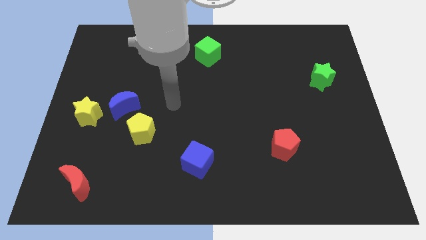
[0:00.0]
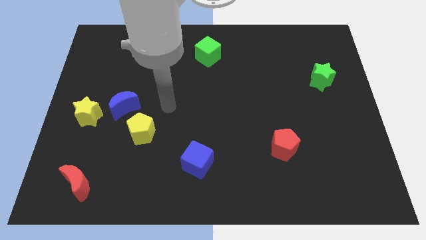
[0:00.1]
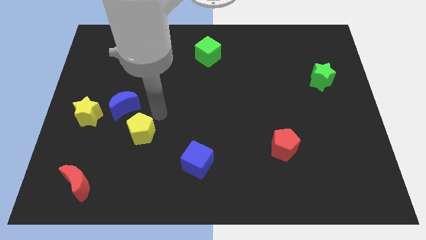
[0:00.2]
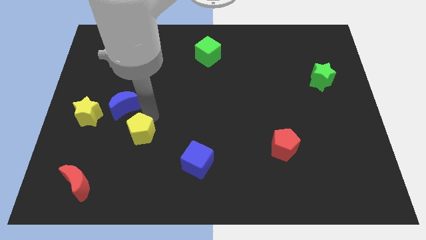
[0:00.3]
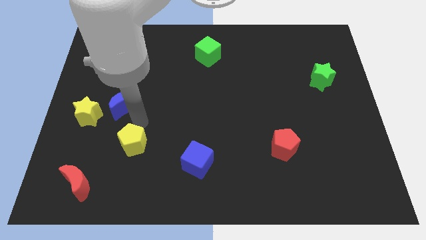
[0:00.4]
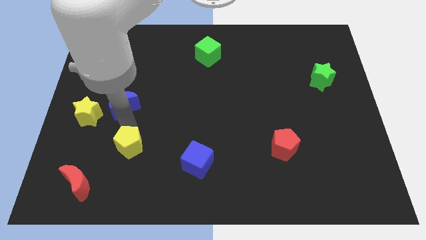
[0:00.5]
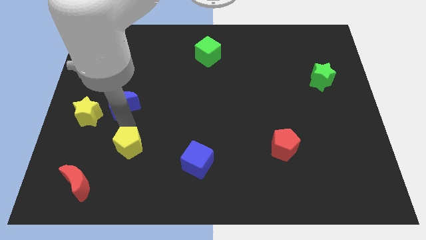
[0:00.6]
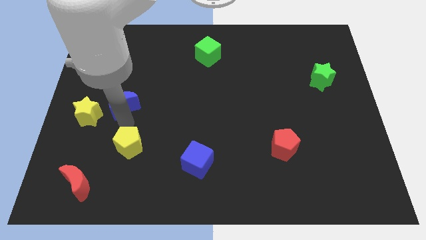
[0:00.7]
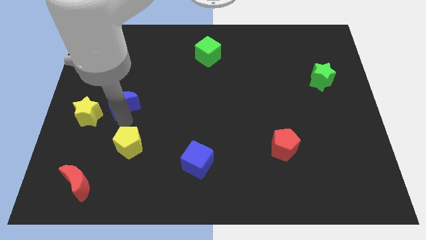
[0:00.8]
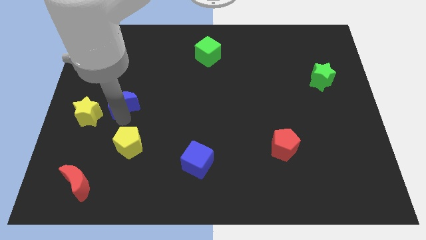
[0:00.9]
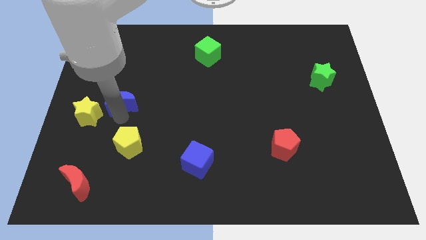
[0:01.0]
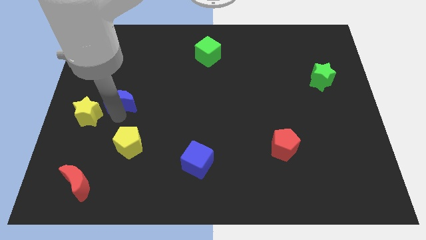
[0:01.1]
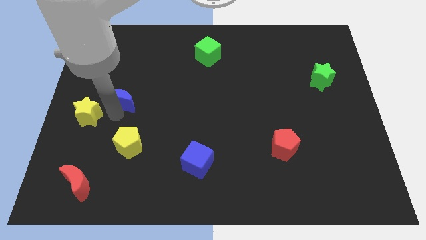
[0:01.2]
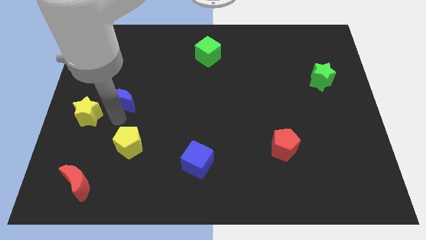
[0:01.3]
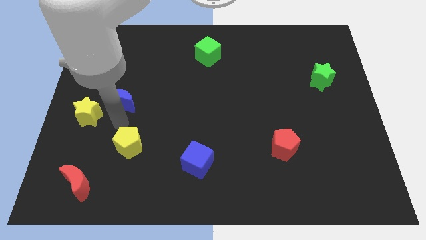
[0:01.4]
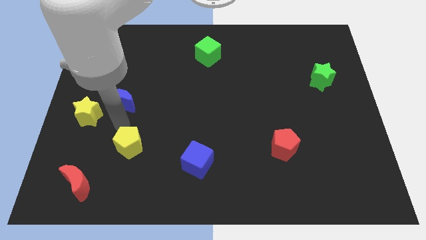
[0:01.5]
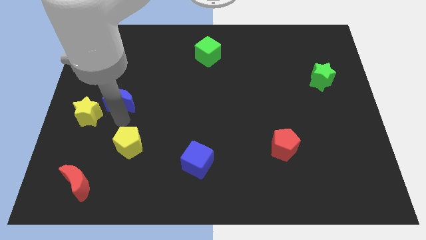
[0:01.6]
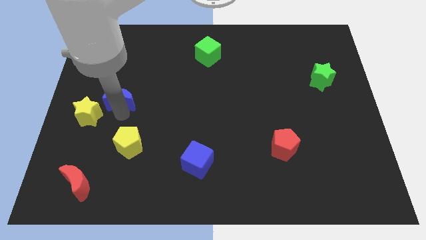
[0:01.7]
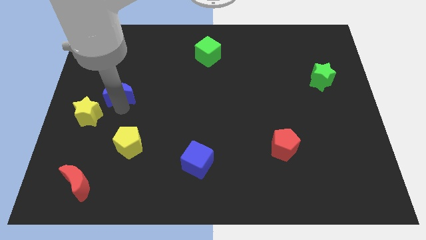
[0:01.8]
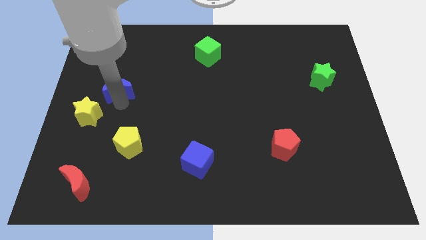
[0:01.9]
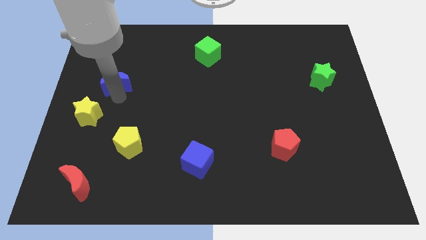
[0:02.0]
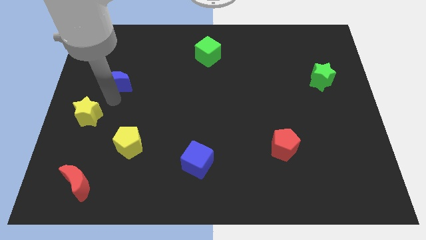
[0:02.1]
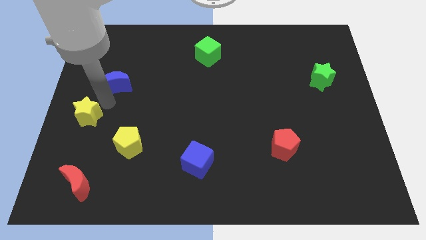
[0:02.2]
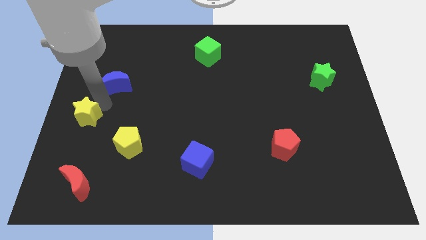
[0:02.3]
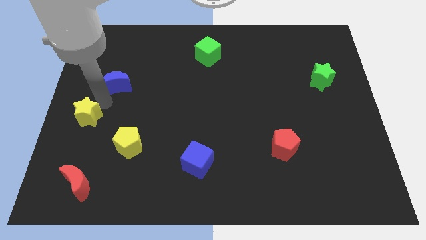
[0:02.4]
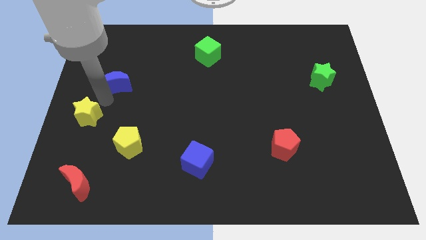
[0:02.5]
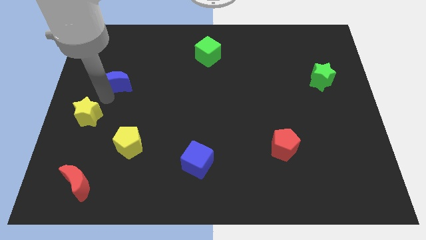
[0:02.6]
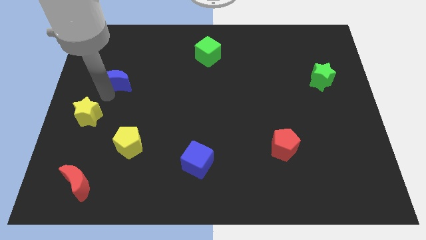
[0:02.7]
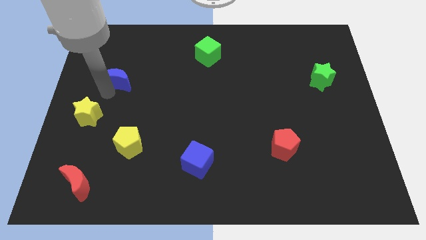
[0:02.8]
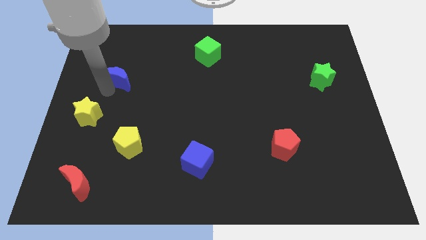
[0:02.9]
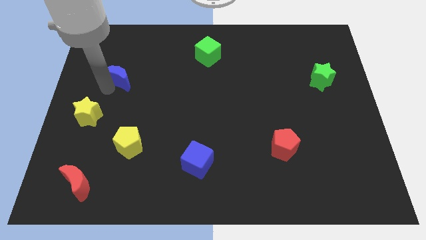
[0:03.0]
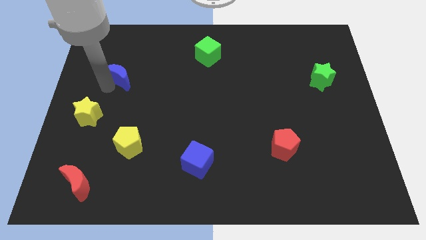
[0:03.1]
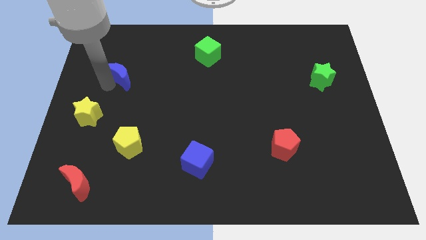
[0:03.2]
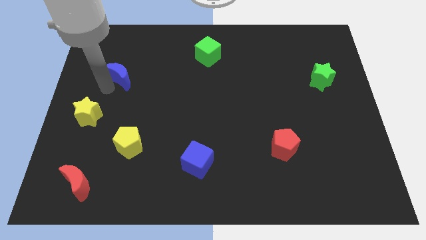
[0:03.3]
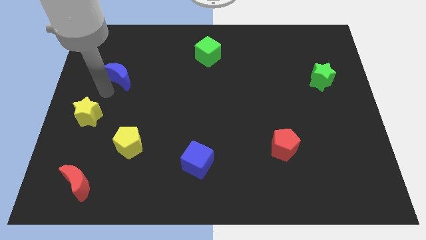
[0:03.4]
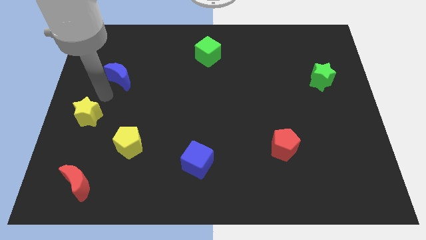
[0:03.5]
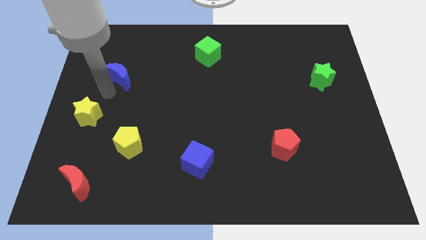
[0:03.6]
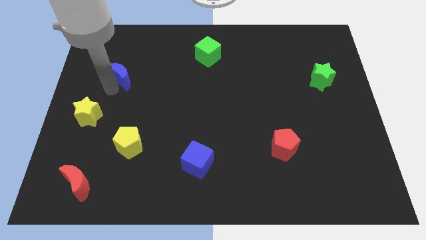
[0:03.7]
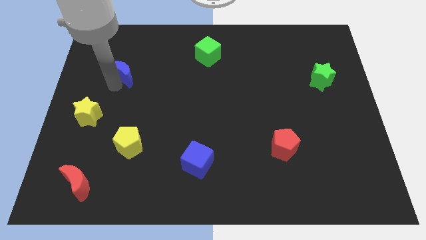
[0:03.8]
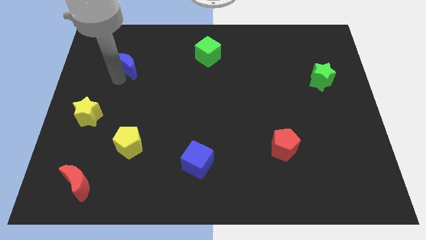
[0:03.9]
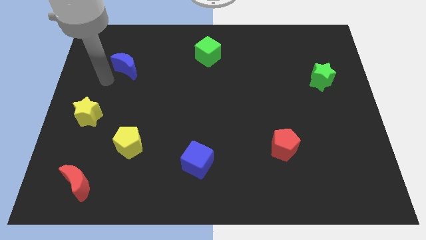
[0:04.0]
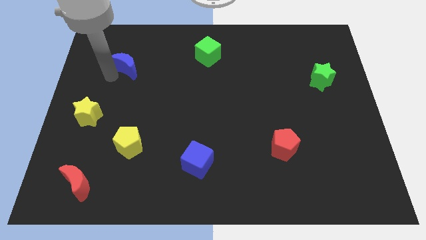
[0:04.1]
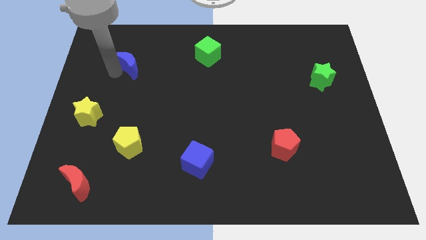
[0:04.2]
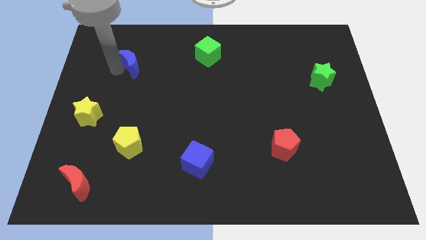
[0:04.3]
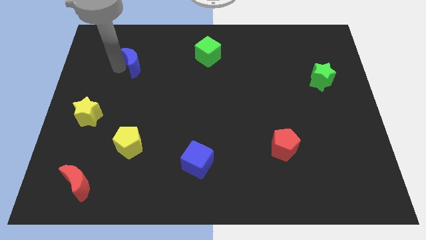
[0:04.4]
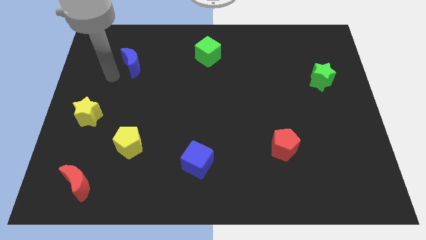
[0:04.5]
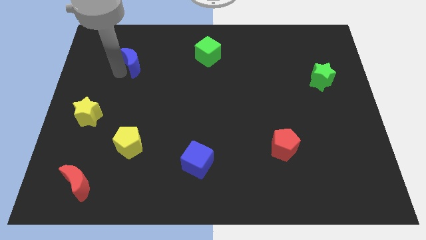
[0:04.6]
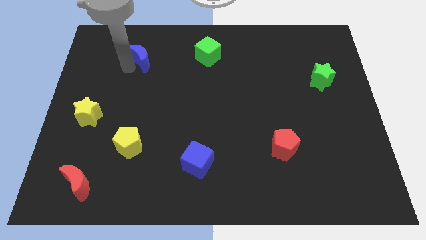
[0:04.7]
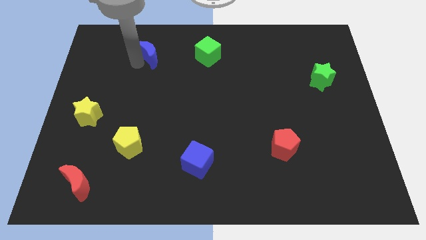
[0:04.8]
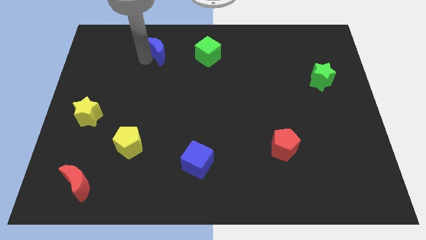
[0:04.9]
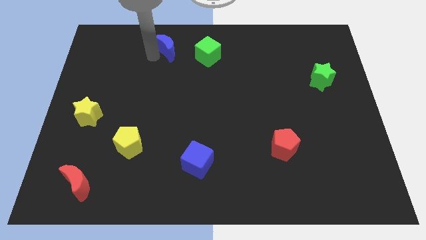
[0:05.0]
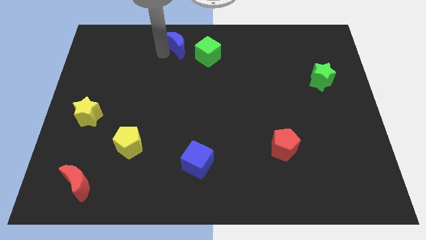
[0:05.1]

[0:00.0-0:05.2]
put the blue moon to the towards your base

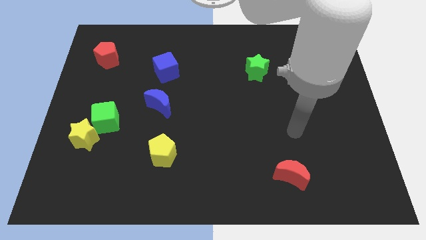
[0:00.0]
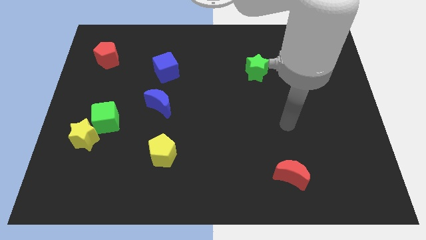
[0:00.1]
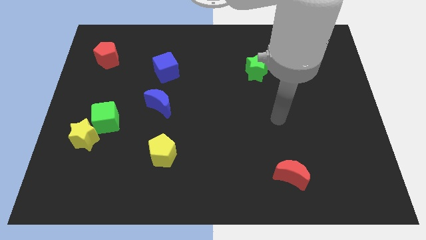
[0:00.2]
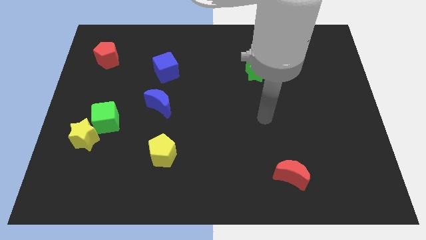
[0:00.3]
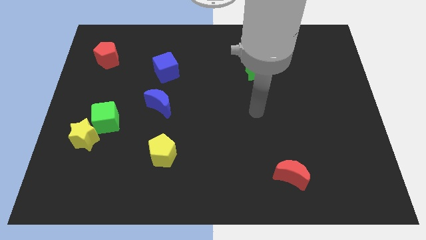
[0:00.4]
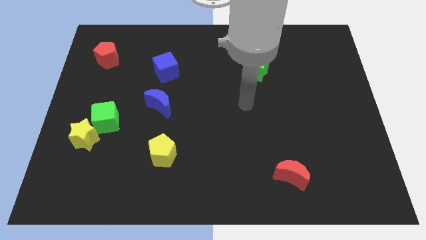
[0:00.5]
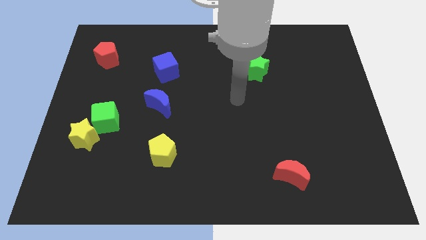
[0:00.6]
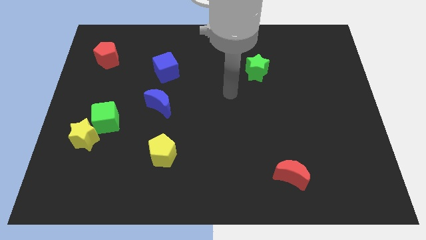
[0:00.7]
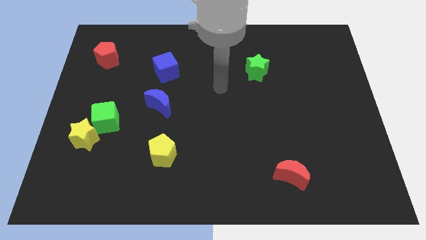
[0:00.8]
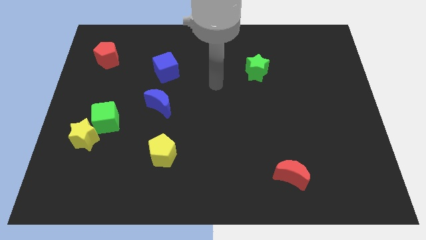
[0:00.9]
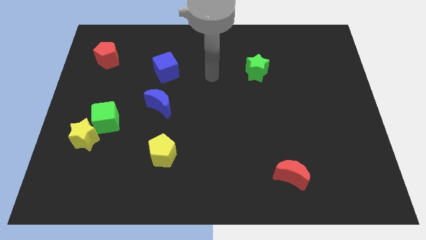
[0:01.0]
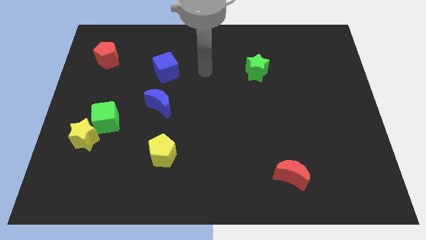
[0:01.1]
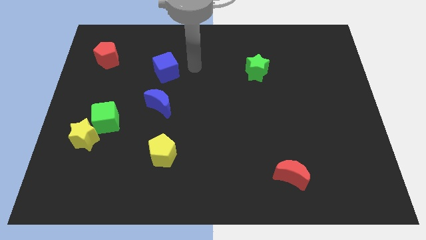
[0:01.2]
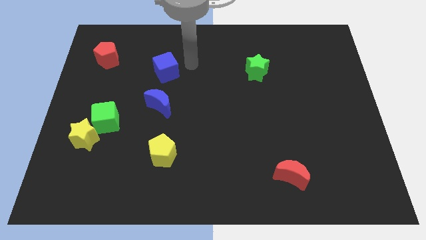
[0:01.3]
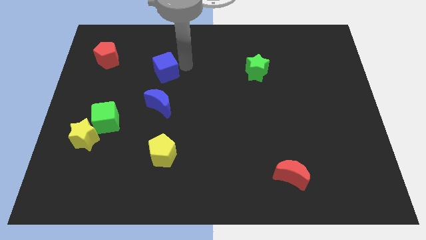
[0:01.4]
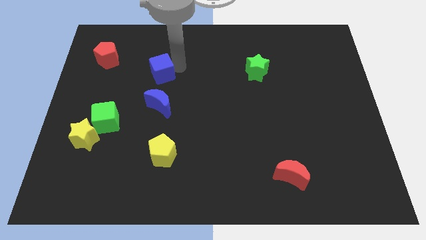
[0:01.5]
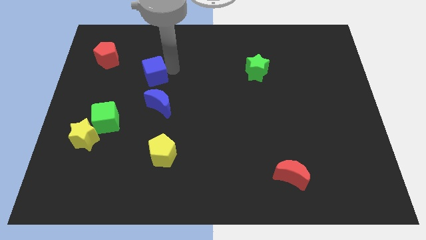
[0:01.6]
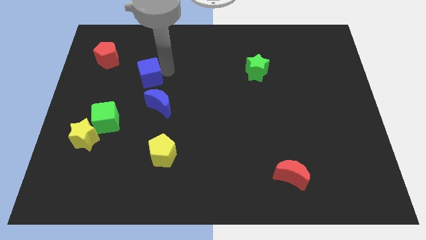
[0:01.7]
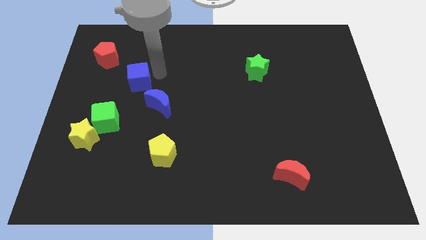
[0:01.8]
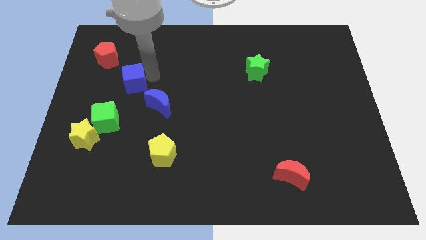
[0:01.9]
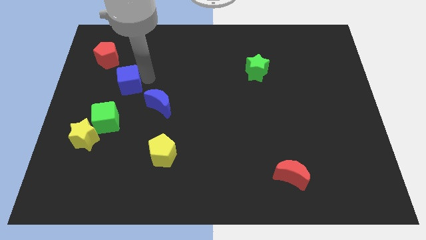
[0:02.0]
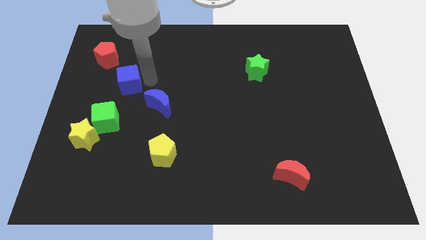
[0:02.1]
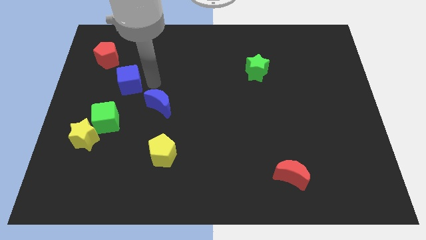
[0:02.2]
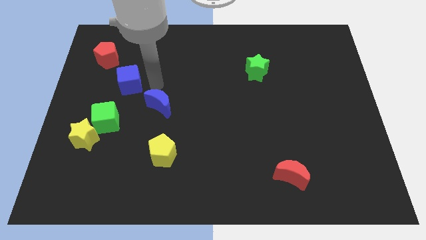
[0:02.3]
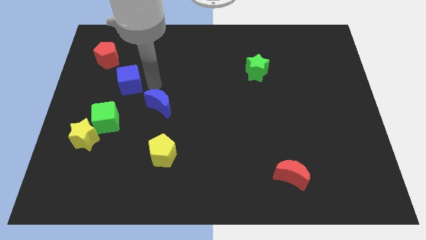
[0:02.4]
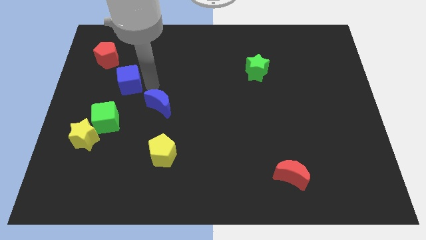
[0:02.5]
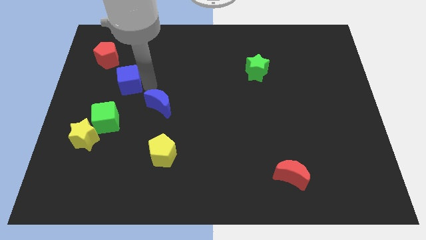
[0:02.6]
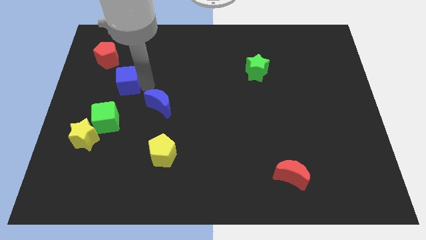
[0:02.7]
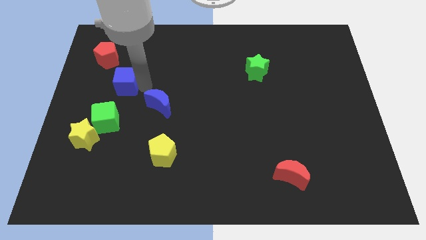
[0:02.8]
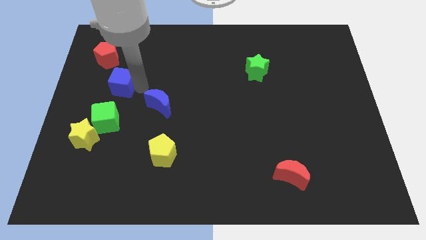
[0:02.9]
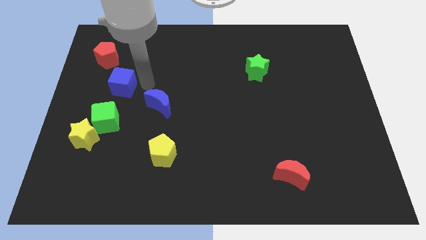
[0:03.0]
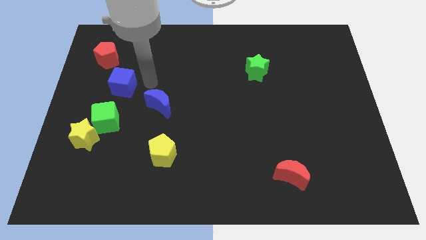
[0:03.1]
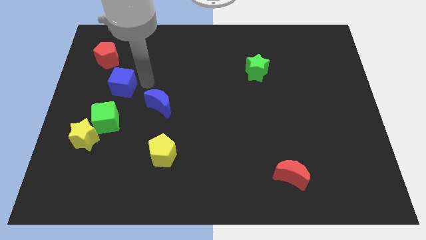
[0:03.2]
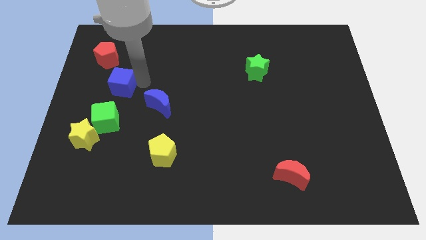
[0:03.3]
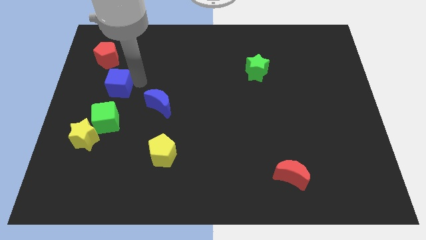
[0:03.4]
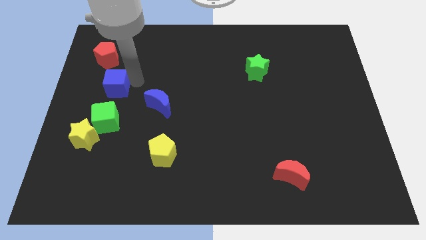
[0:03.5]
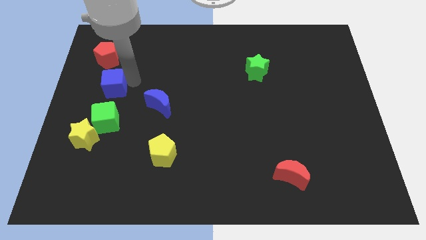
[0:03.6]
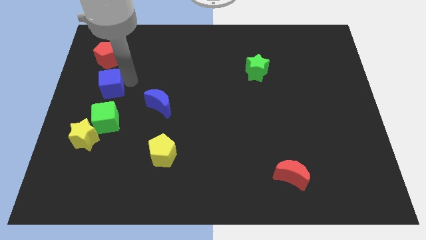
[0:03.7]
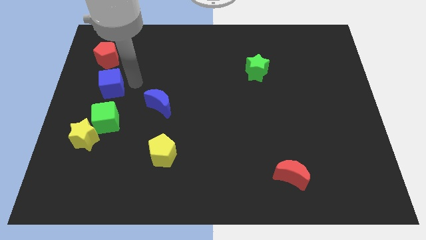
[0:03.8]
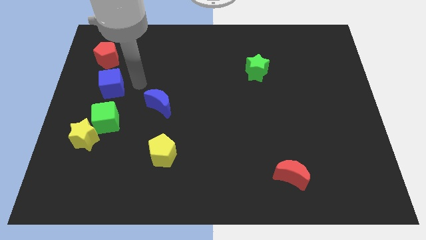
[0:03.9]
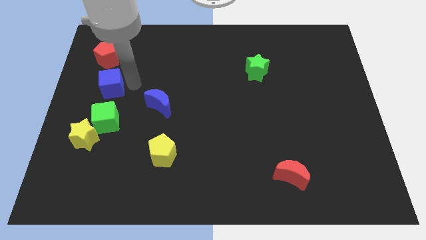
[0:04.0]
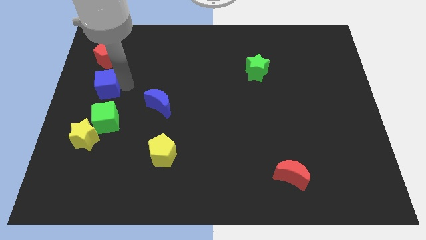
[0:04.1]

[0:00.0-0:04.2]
put the blue cube to the left side of the board
